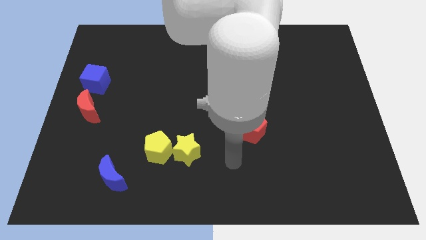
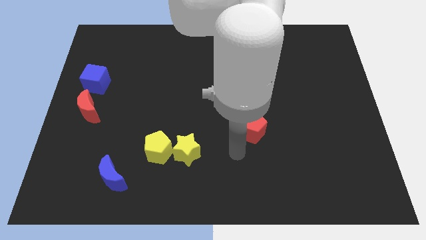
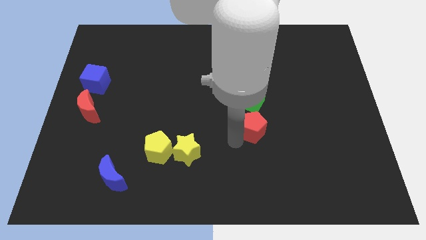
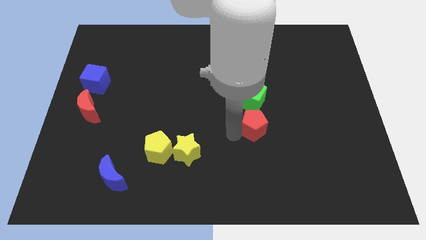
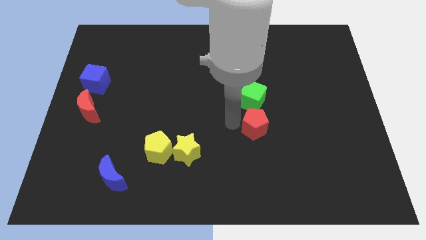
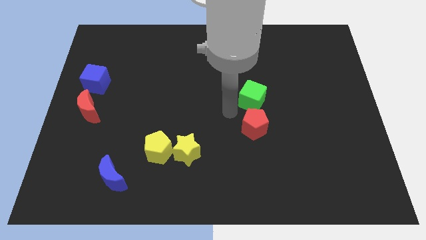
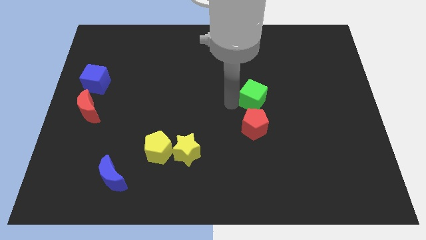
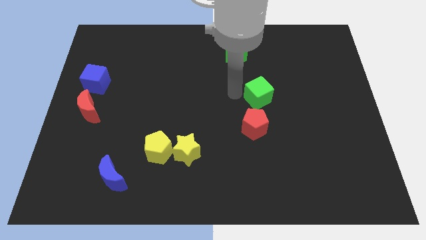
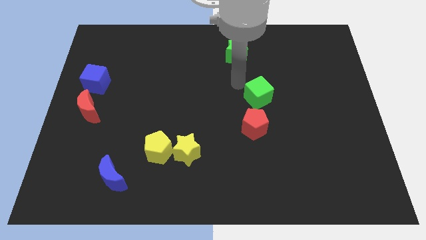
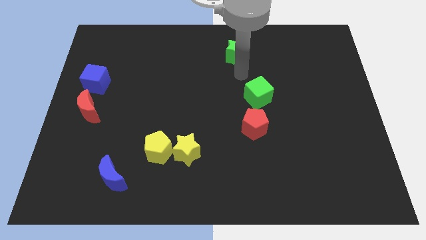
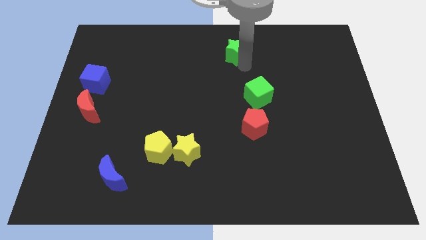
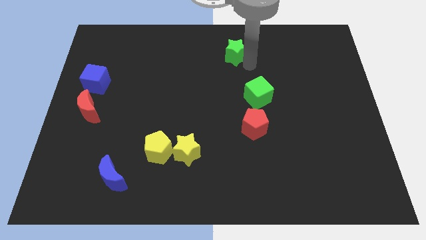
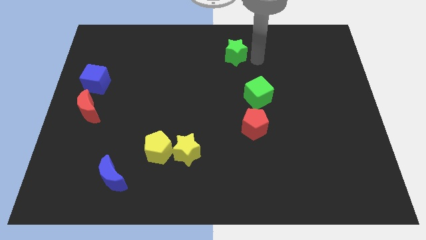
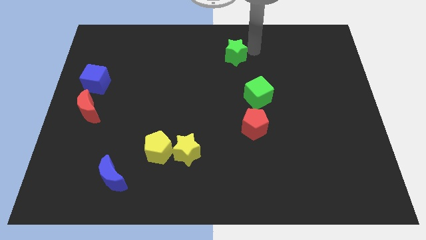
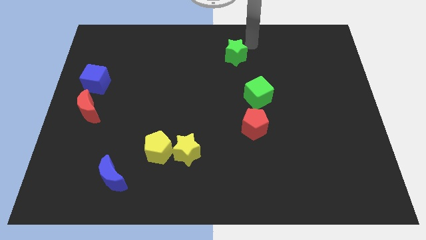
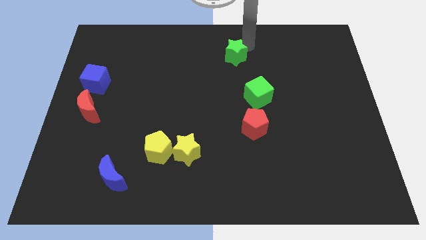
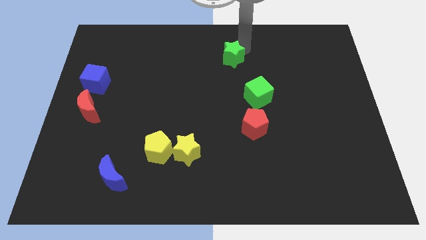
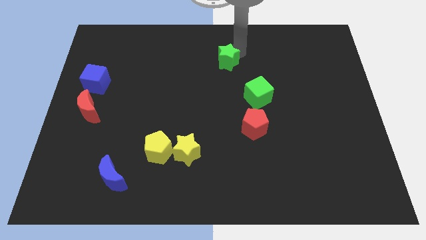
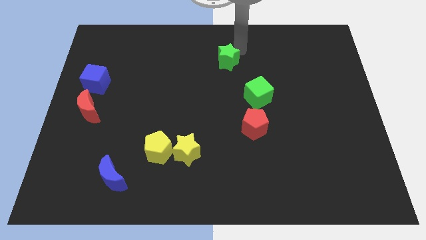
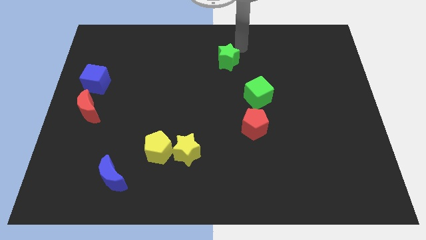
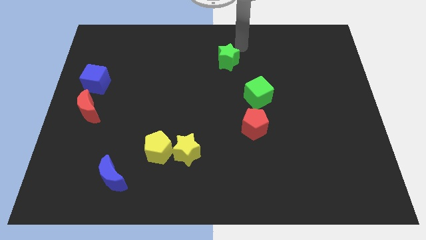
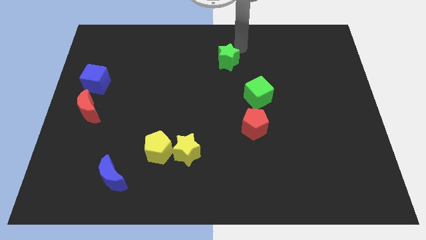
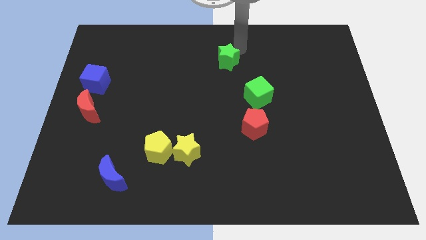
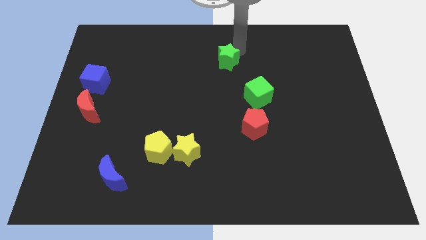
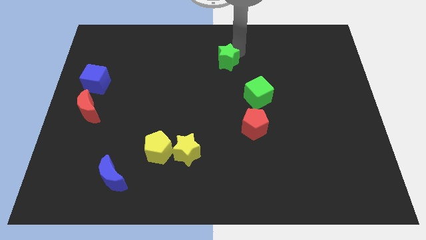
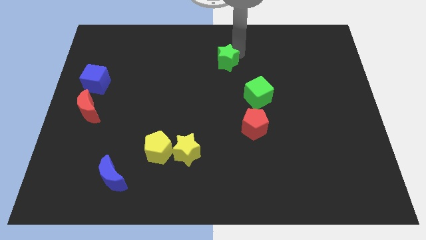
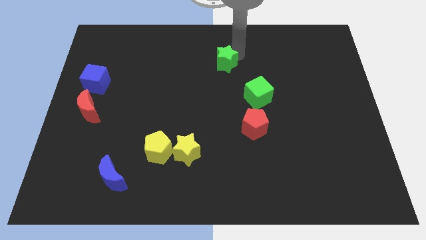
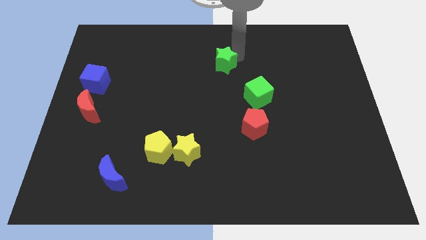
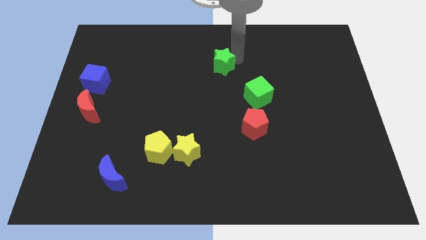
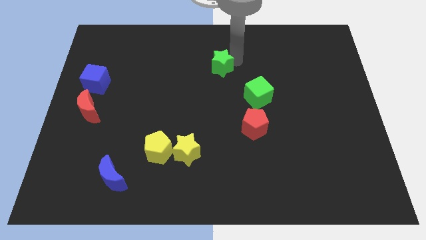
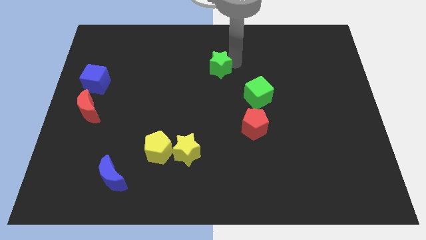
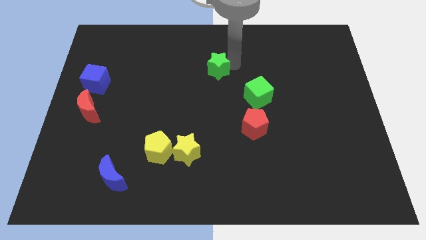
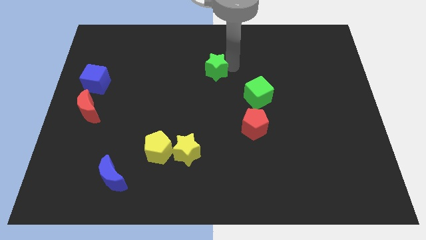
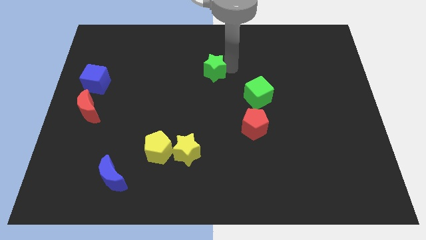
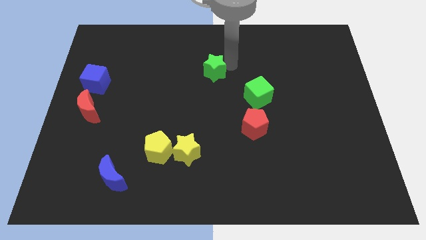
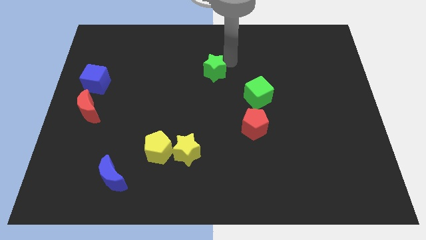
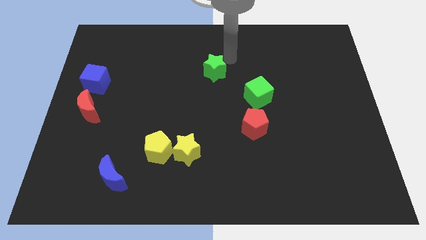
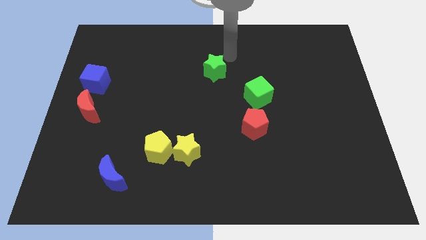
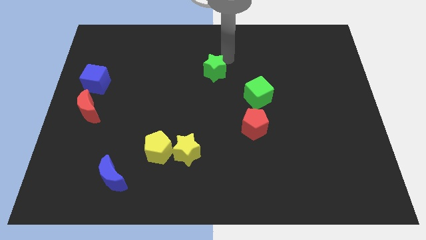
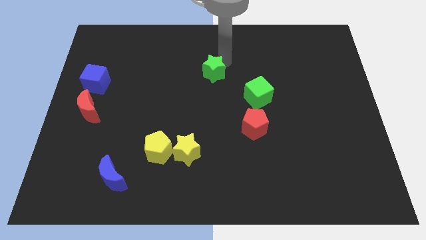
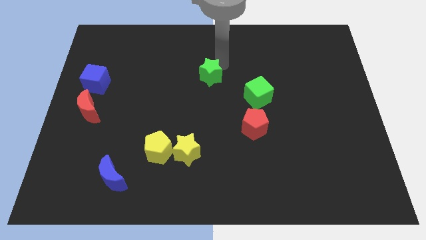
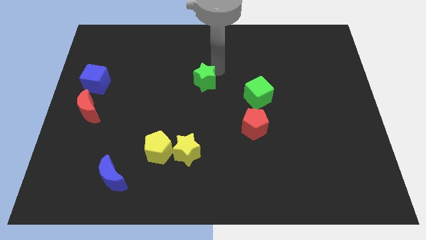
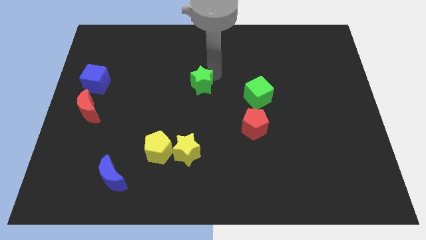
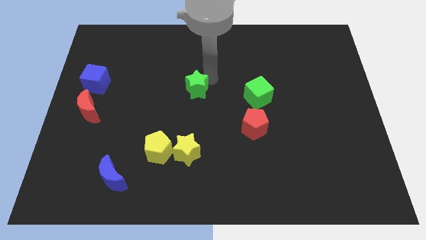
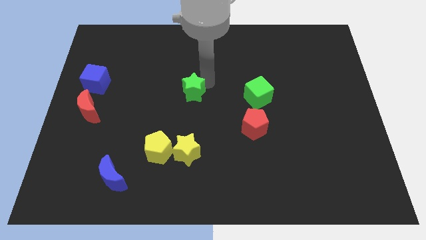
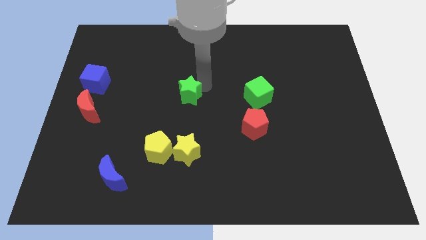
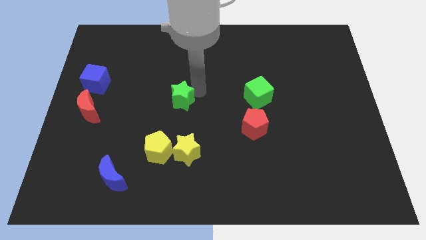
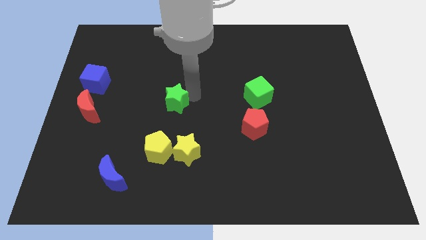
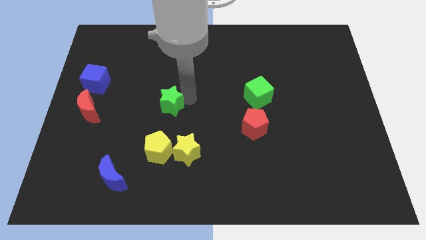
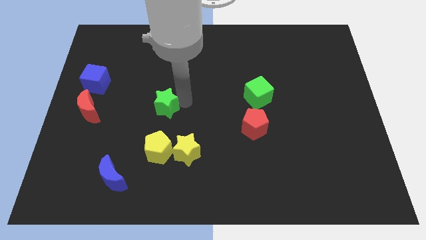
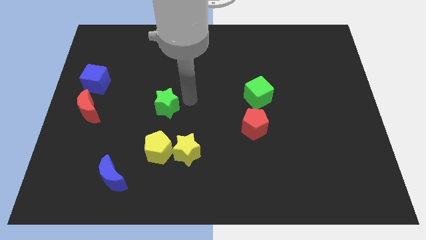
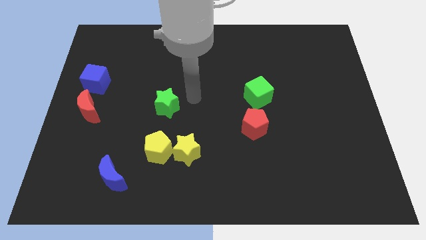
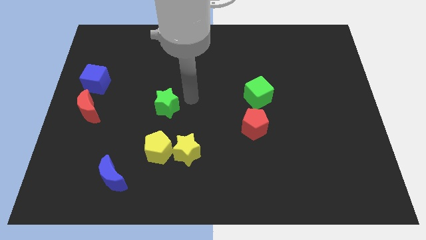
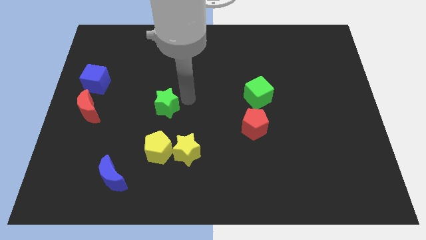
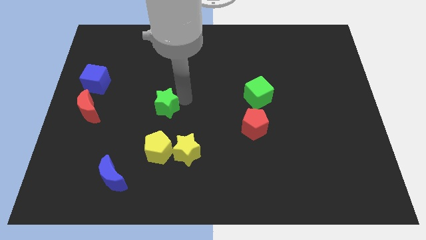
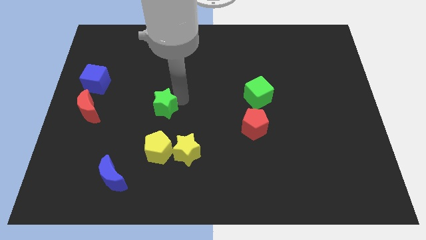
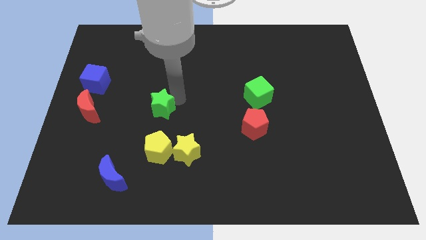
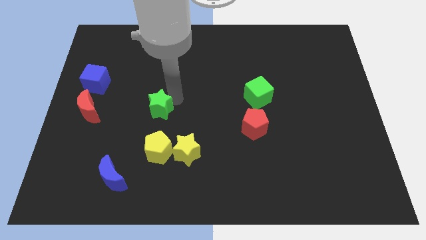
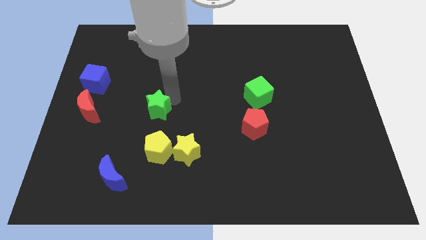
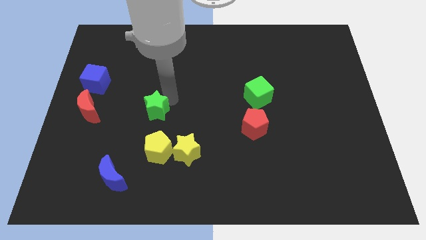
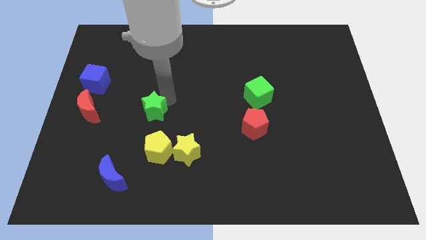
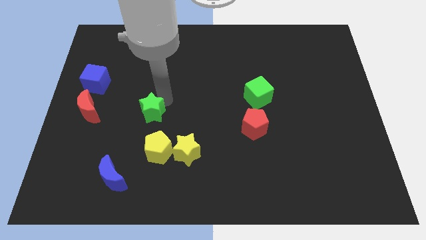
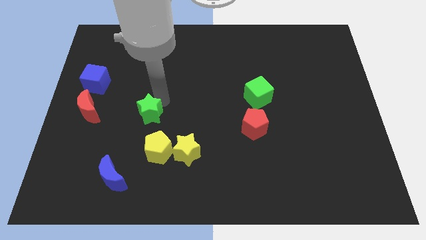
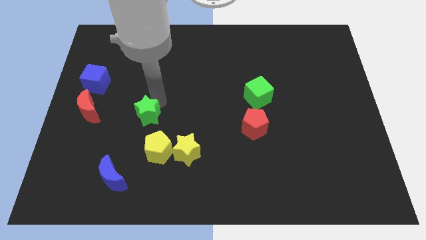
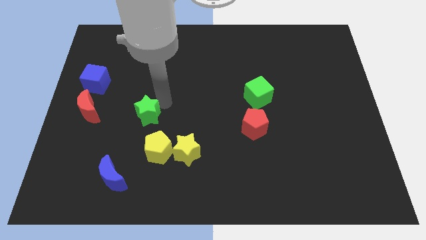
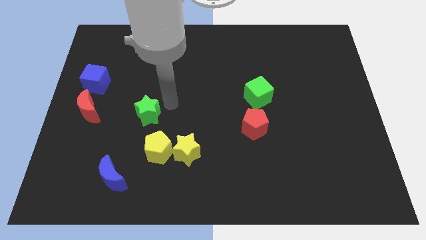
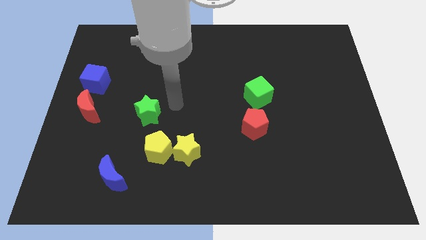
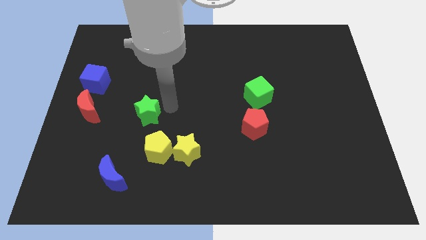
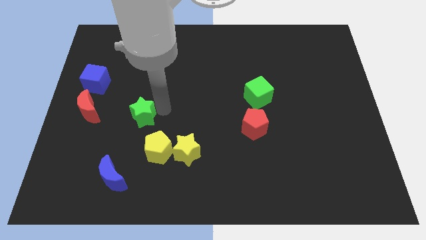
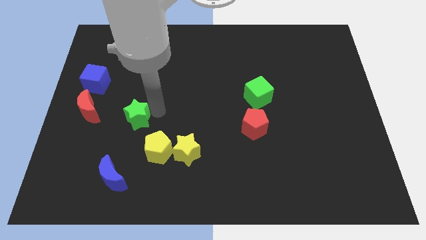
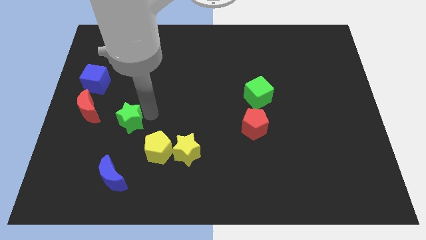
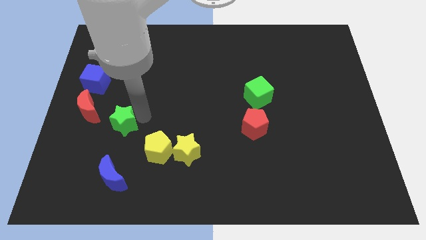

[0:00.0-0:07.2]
slide the green star to the bottom right side of the red moon
